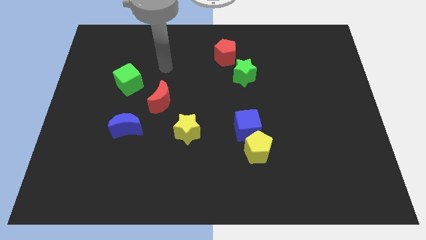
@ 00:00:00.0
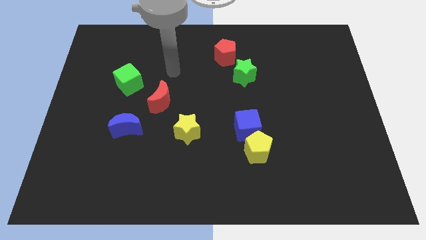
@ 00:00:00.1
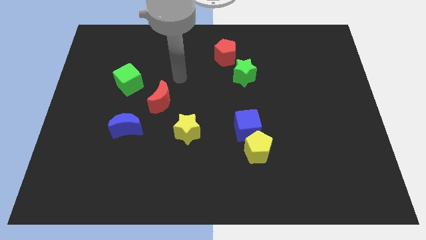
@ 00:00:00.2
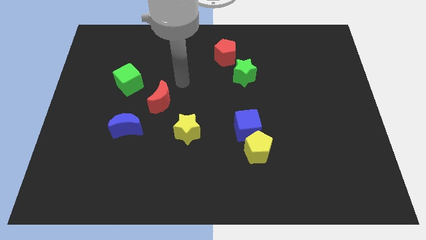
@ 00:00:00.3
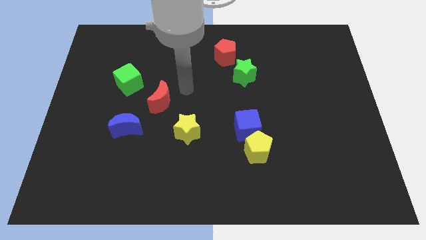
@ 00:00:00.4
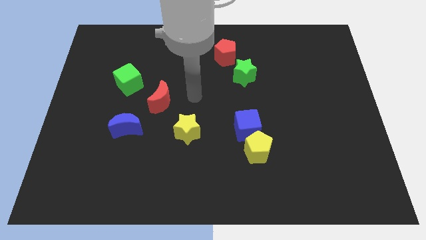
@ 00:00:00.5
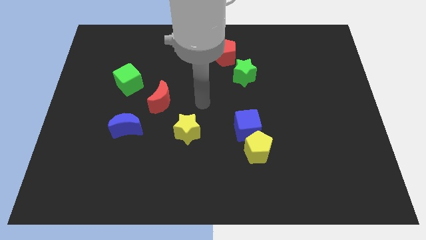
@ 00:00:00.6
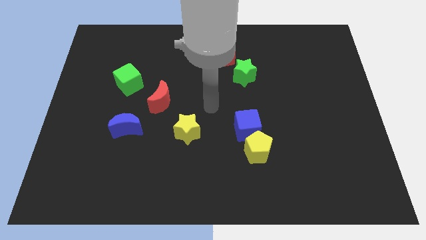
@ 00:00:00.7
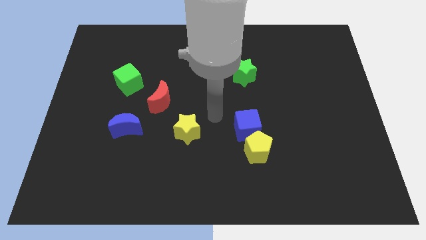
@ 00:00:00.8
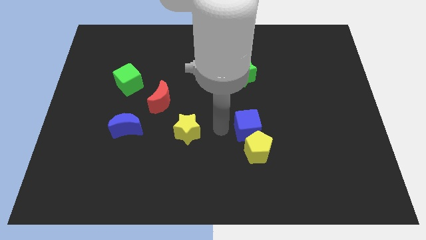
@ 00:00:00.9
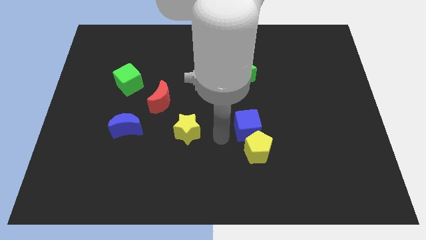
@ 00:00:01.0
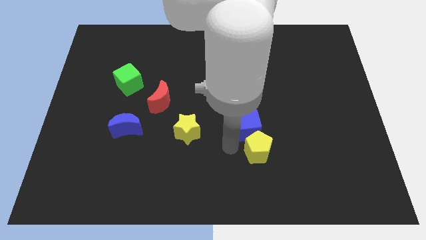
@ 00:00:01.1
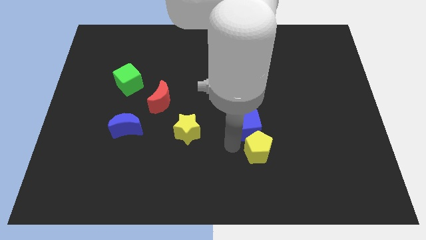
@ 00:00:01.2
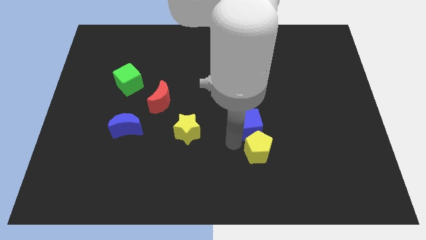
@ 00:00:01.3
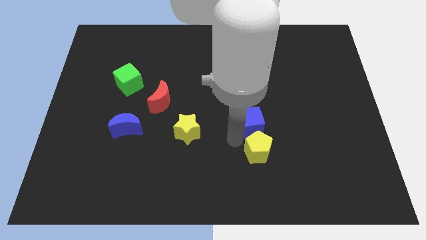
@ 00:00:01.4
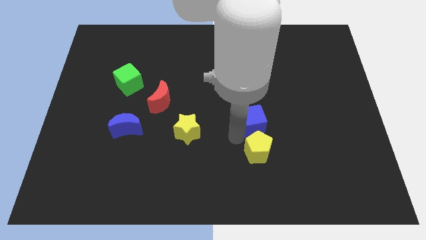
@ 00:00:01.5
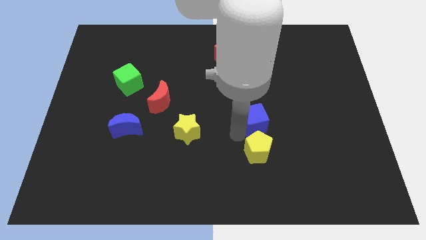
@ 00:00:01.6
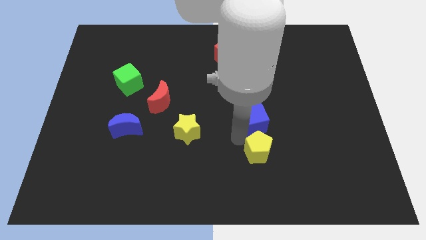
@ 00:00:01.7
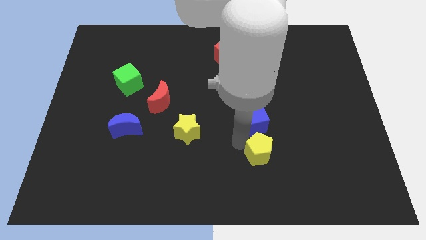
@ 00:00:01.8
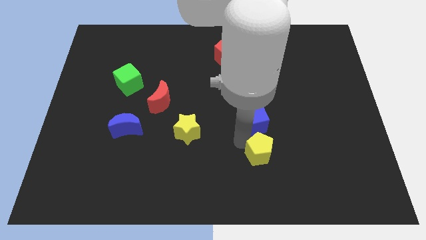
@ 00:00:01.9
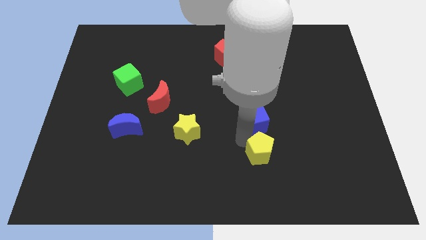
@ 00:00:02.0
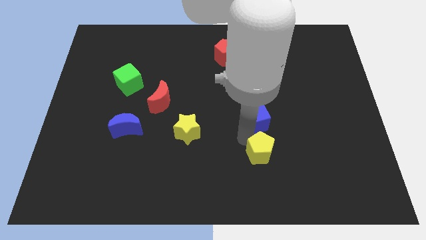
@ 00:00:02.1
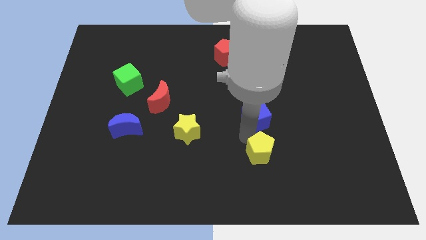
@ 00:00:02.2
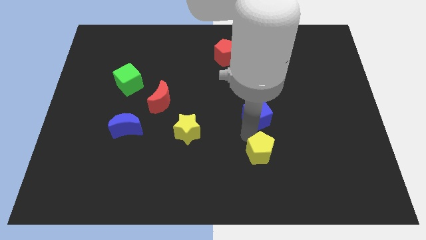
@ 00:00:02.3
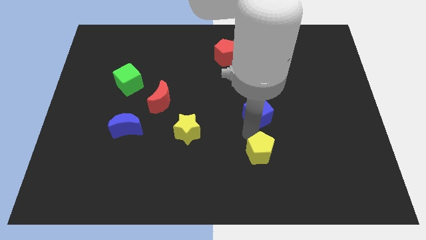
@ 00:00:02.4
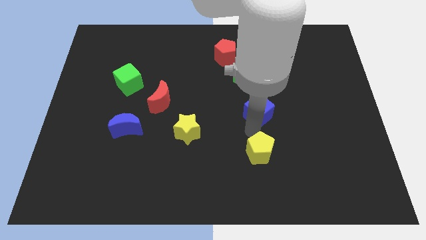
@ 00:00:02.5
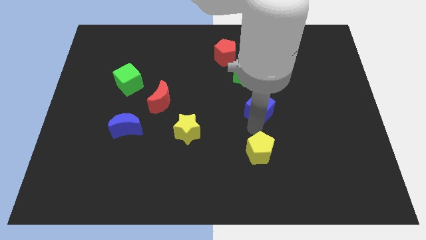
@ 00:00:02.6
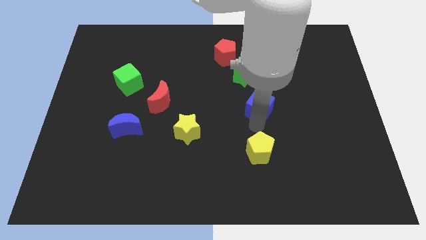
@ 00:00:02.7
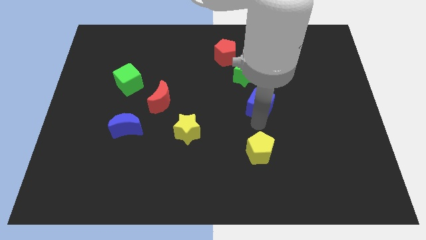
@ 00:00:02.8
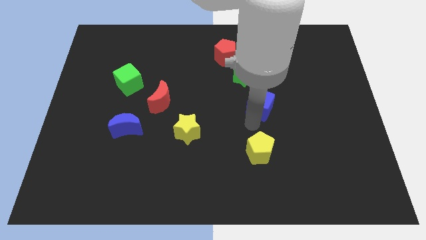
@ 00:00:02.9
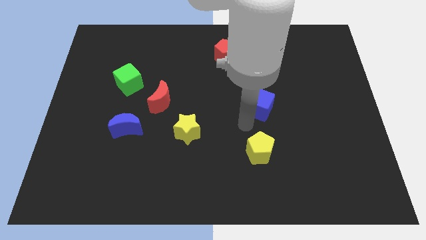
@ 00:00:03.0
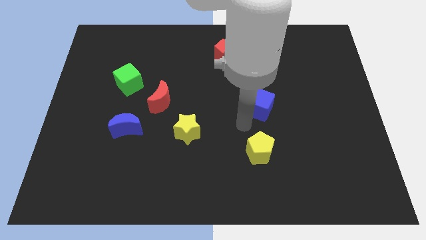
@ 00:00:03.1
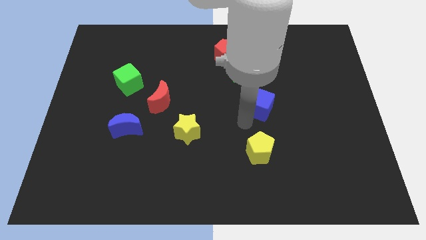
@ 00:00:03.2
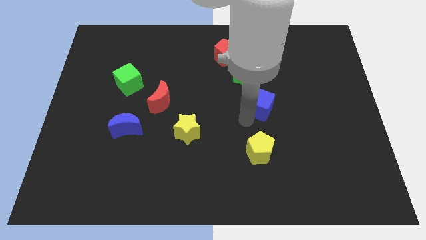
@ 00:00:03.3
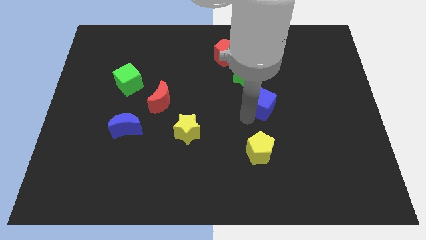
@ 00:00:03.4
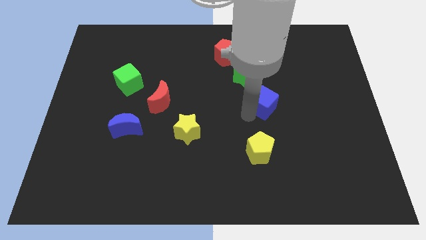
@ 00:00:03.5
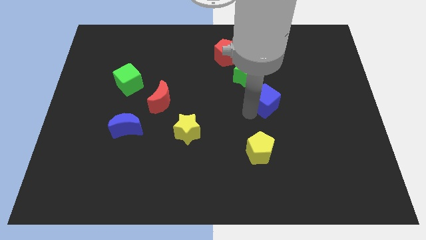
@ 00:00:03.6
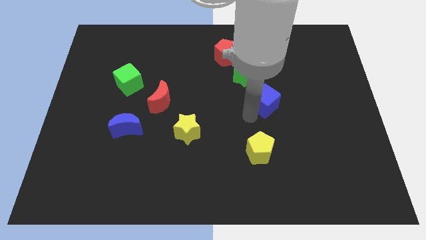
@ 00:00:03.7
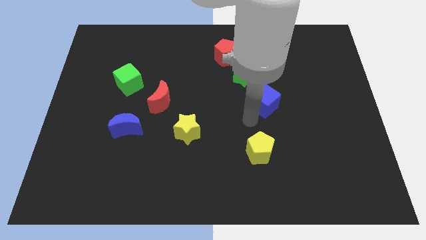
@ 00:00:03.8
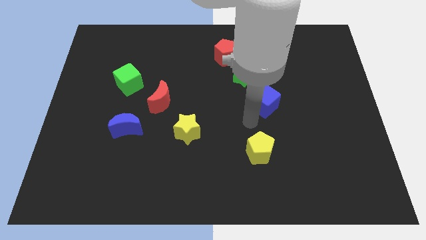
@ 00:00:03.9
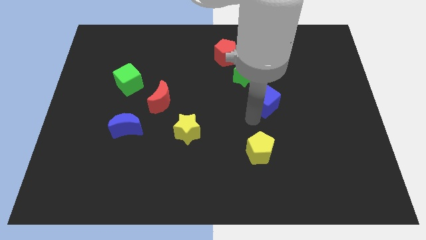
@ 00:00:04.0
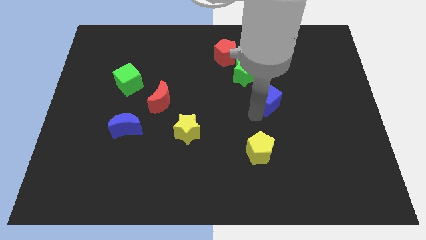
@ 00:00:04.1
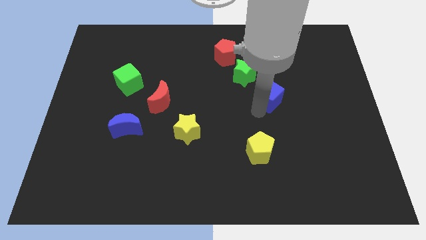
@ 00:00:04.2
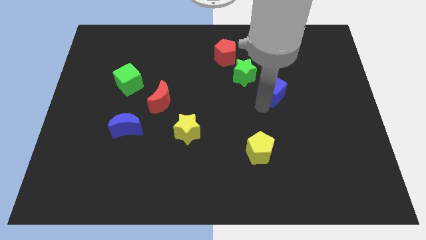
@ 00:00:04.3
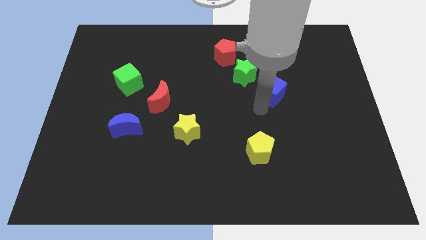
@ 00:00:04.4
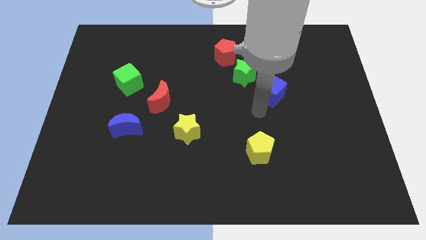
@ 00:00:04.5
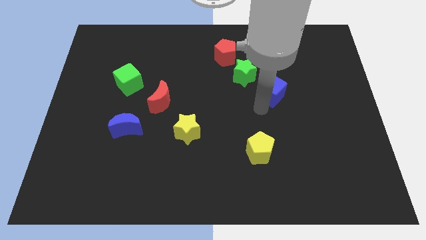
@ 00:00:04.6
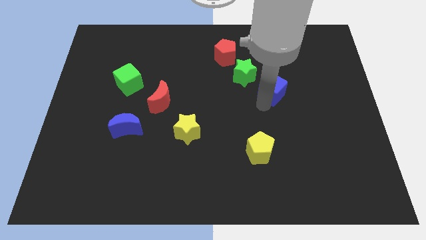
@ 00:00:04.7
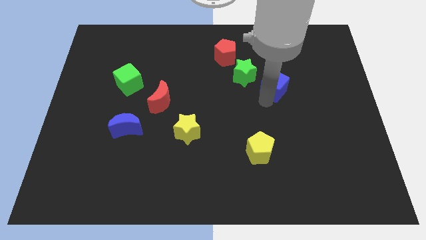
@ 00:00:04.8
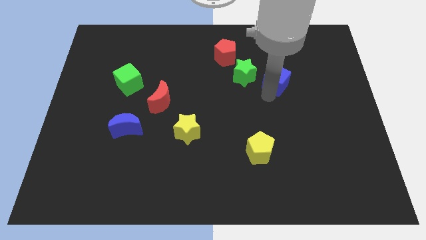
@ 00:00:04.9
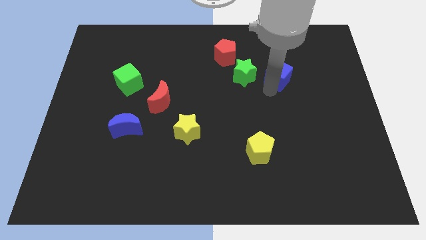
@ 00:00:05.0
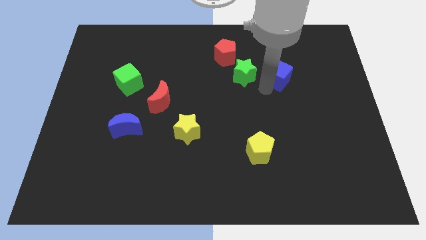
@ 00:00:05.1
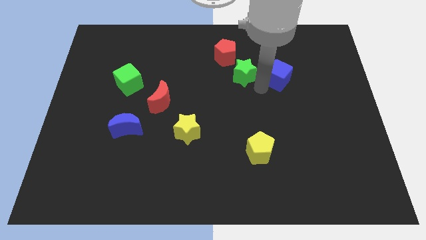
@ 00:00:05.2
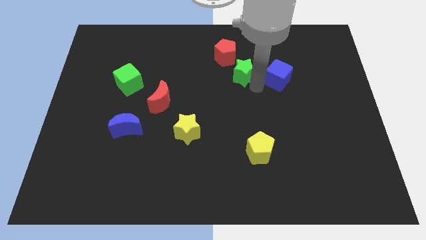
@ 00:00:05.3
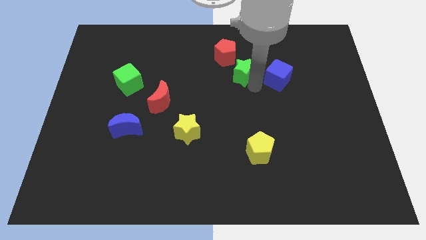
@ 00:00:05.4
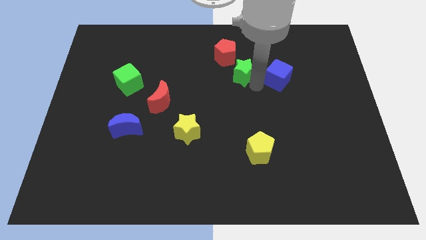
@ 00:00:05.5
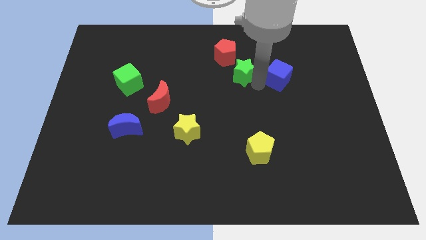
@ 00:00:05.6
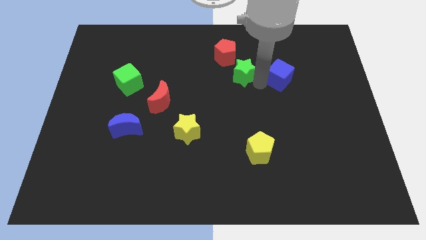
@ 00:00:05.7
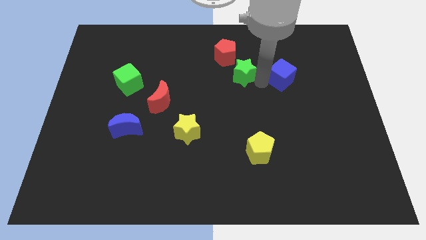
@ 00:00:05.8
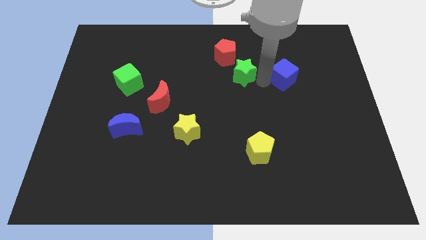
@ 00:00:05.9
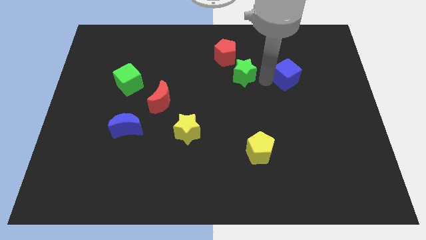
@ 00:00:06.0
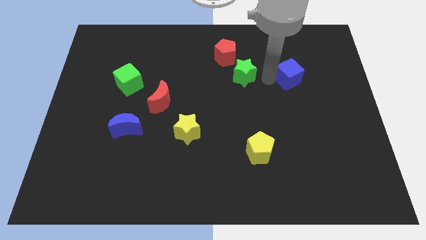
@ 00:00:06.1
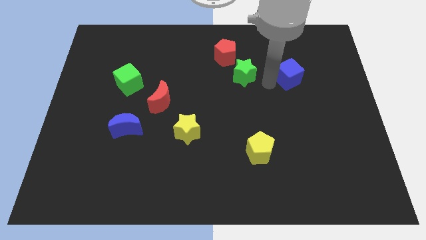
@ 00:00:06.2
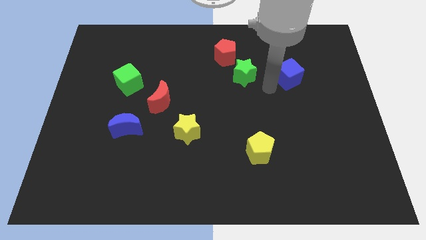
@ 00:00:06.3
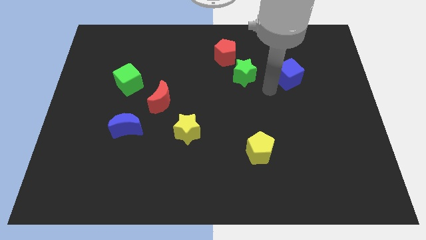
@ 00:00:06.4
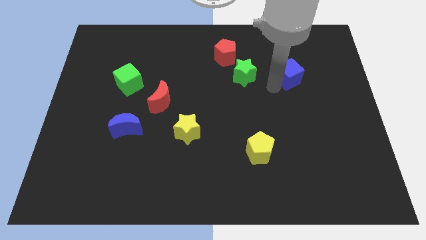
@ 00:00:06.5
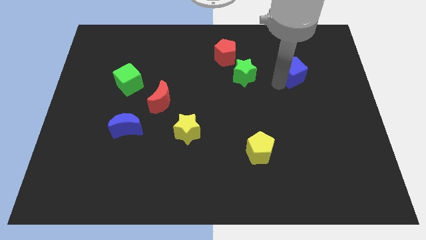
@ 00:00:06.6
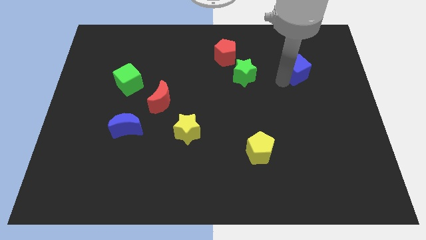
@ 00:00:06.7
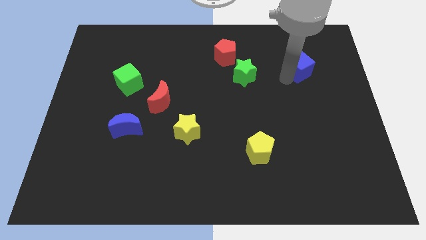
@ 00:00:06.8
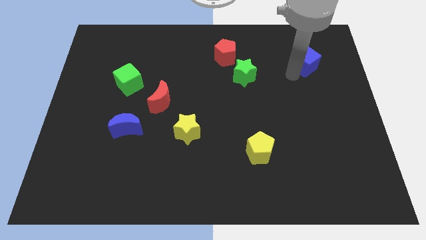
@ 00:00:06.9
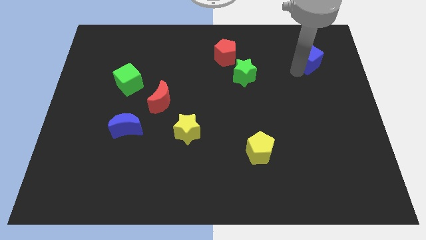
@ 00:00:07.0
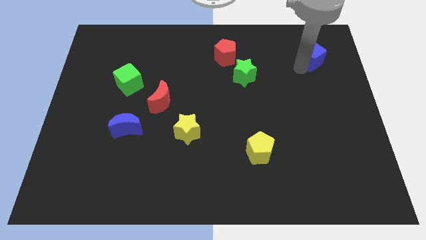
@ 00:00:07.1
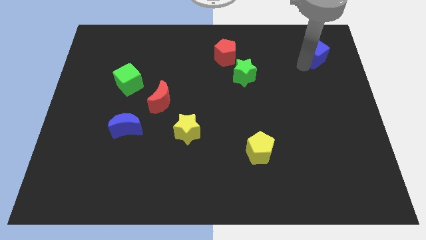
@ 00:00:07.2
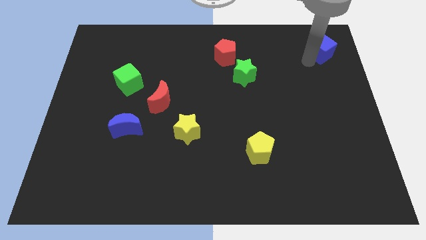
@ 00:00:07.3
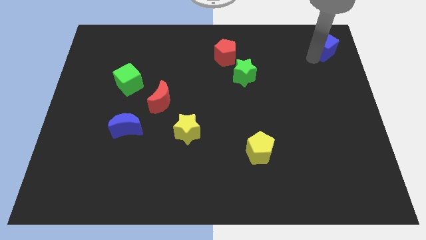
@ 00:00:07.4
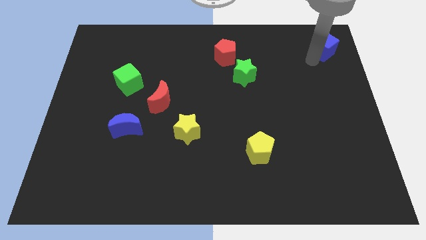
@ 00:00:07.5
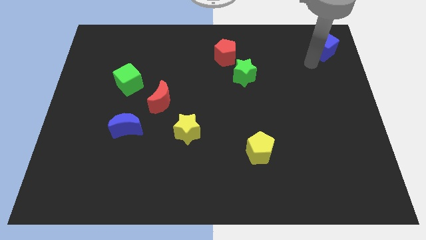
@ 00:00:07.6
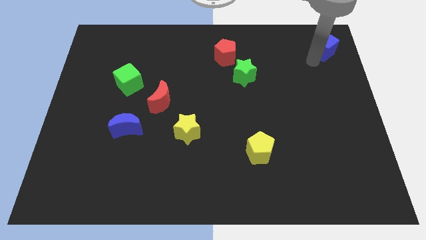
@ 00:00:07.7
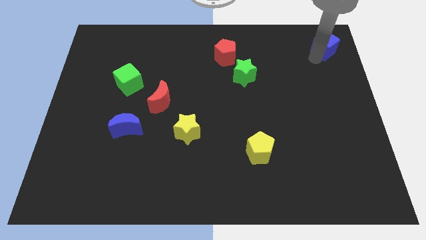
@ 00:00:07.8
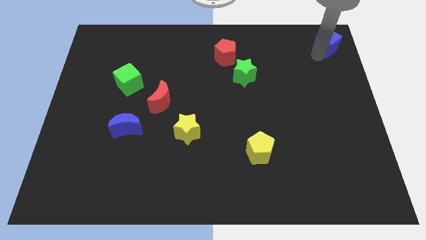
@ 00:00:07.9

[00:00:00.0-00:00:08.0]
slide the blue cube to the upper right corner
